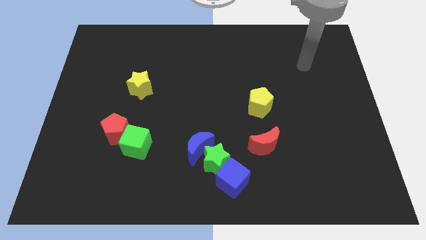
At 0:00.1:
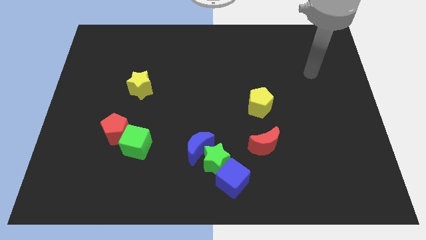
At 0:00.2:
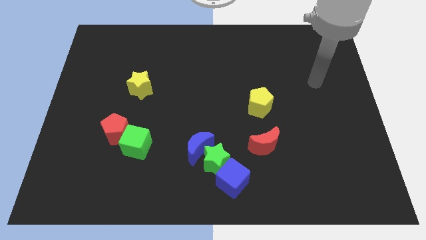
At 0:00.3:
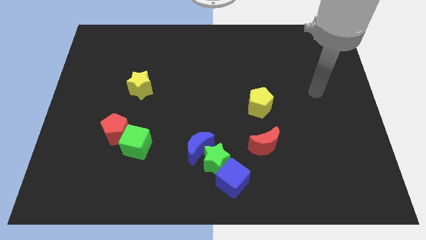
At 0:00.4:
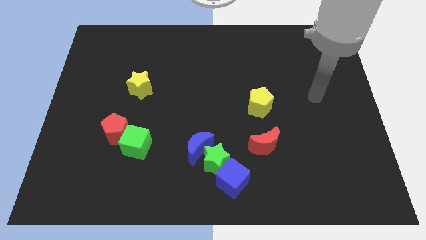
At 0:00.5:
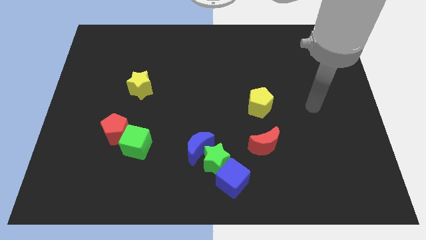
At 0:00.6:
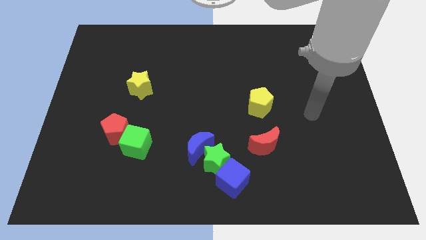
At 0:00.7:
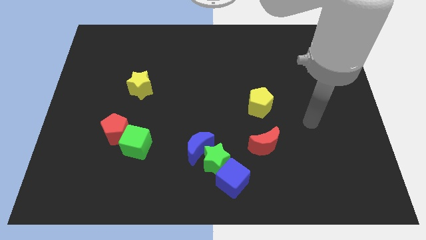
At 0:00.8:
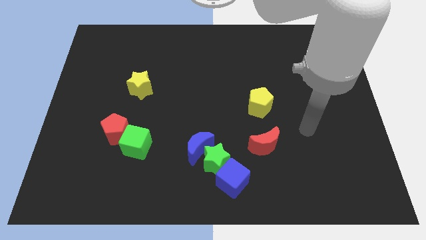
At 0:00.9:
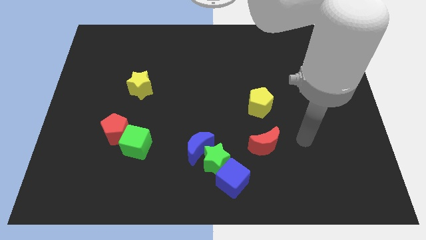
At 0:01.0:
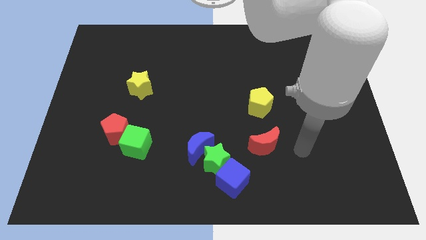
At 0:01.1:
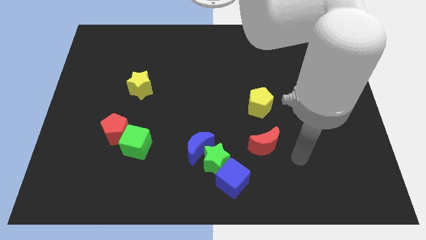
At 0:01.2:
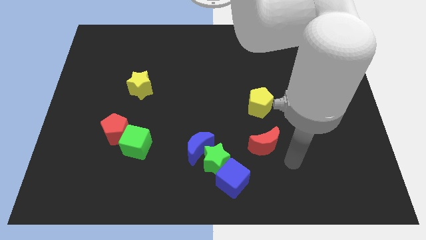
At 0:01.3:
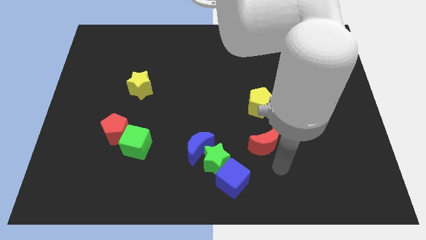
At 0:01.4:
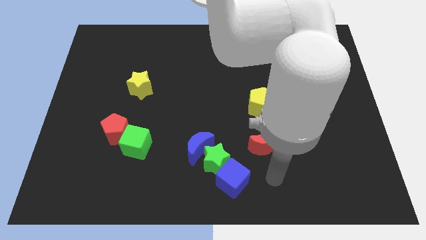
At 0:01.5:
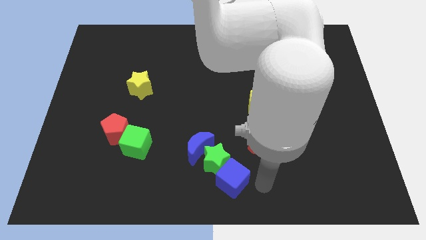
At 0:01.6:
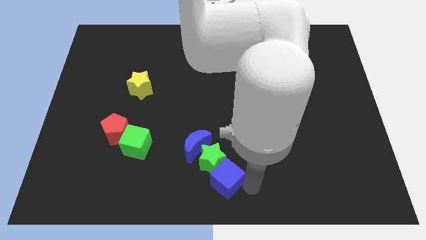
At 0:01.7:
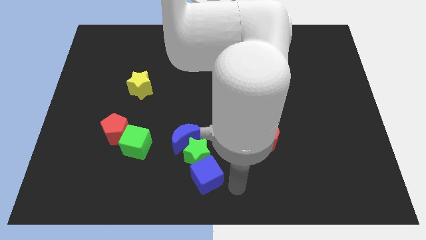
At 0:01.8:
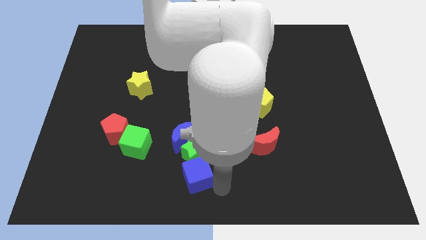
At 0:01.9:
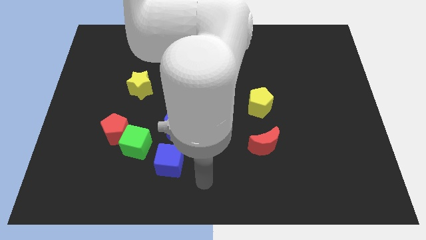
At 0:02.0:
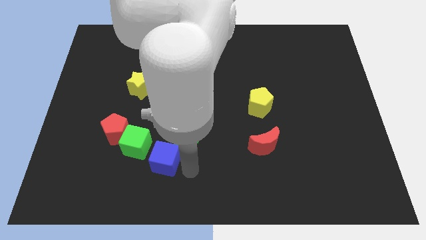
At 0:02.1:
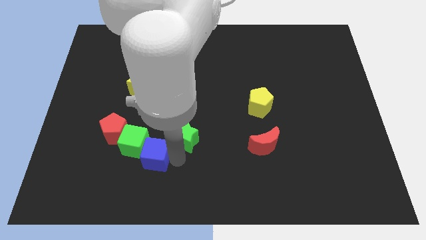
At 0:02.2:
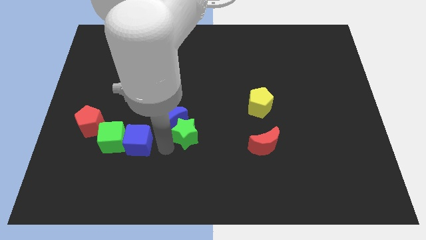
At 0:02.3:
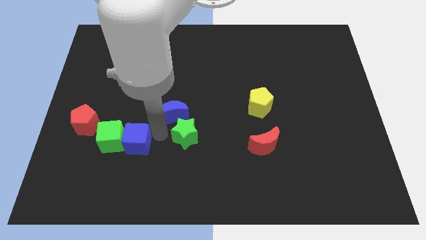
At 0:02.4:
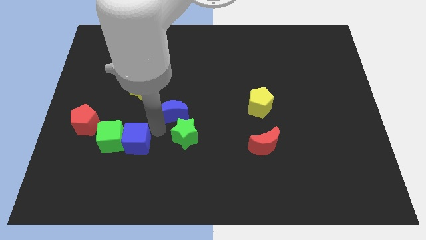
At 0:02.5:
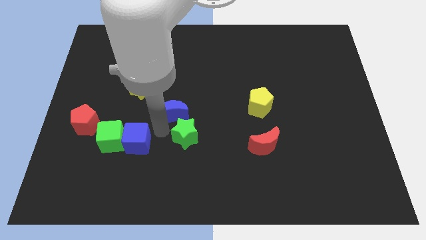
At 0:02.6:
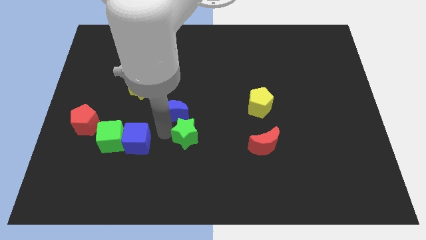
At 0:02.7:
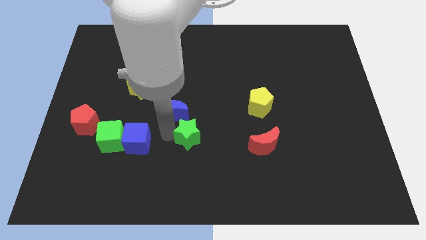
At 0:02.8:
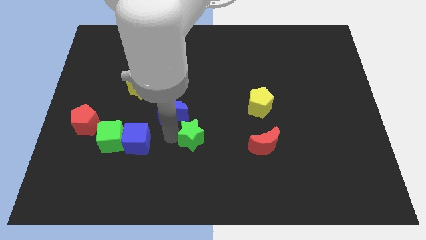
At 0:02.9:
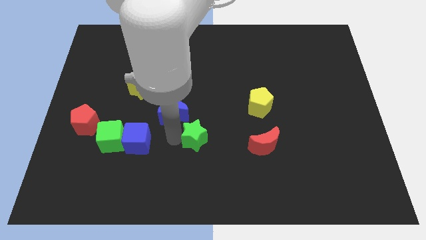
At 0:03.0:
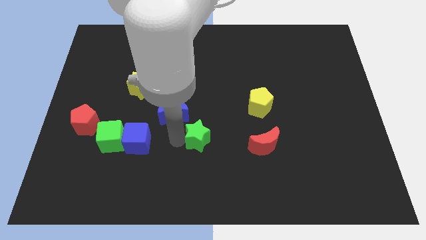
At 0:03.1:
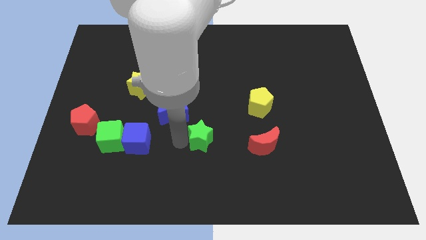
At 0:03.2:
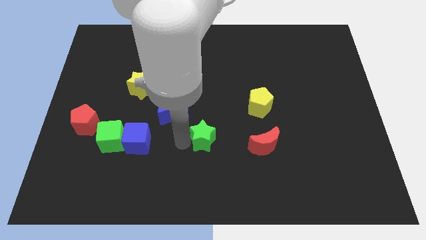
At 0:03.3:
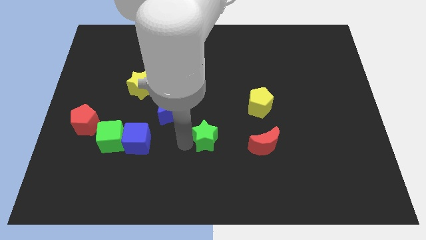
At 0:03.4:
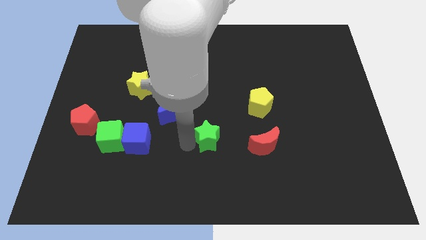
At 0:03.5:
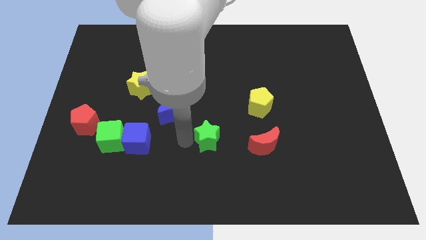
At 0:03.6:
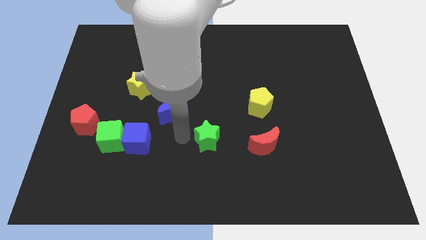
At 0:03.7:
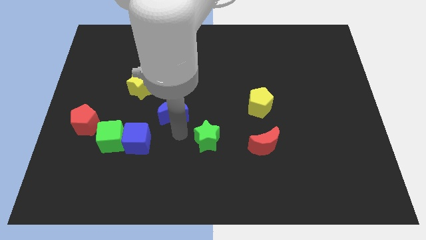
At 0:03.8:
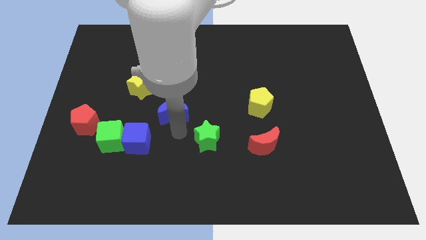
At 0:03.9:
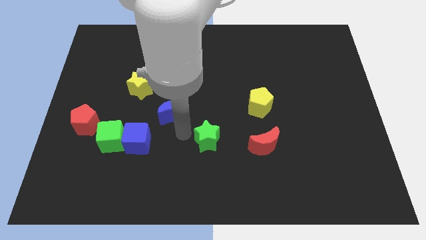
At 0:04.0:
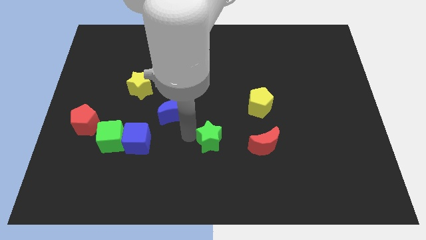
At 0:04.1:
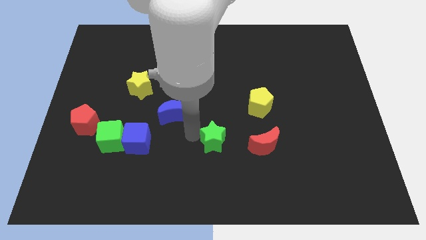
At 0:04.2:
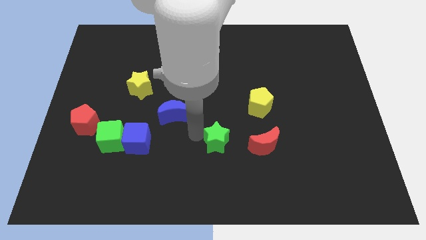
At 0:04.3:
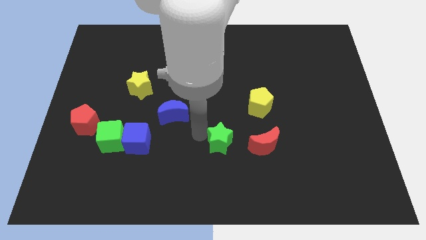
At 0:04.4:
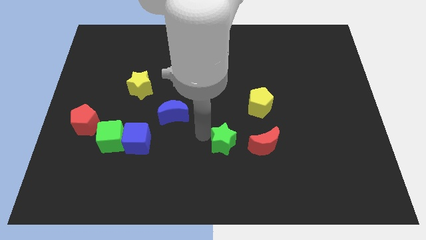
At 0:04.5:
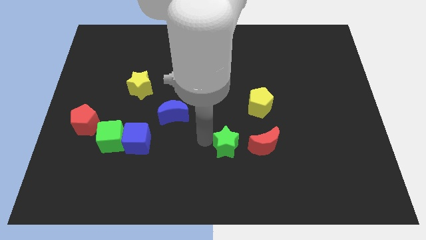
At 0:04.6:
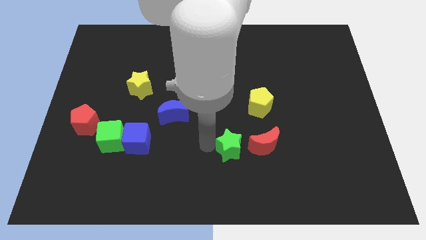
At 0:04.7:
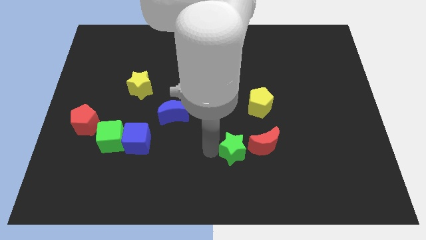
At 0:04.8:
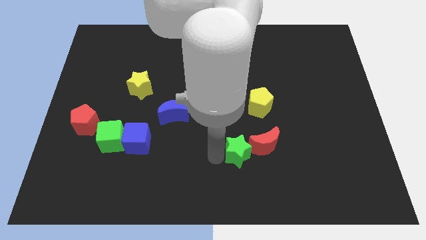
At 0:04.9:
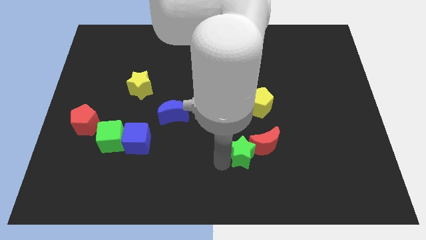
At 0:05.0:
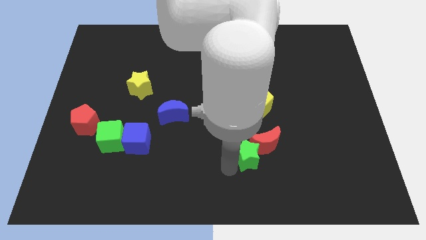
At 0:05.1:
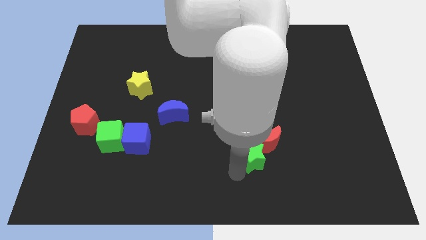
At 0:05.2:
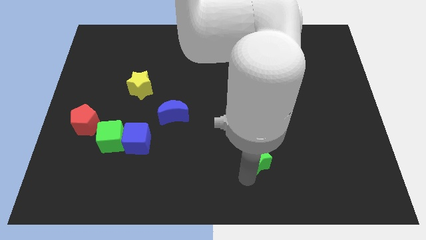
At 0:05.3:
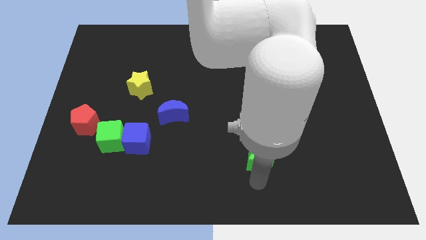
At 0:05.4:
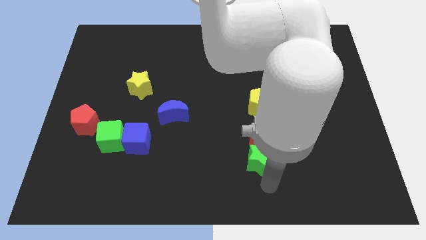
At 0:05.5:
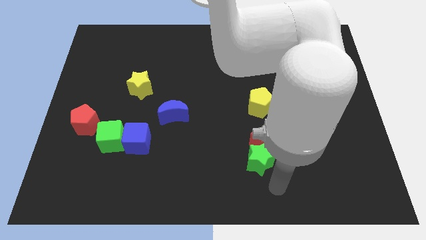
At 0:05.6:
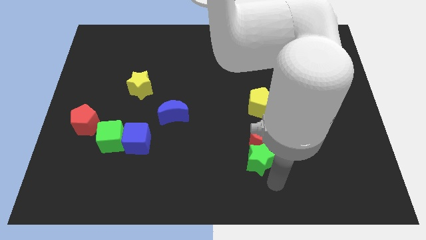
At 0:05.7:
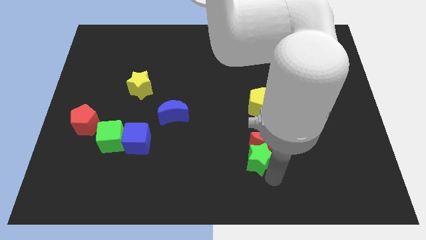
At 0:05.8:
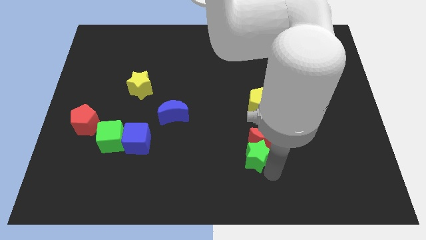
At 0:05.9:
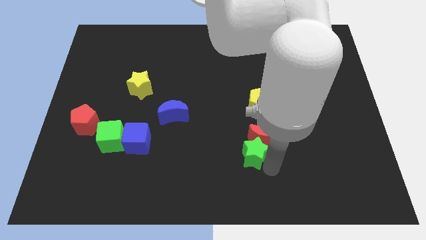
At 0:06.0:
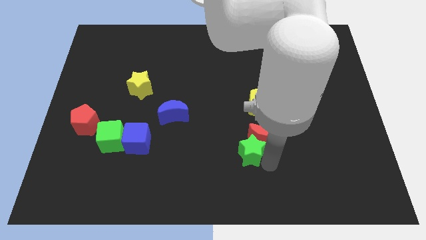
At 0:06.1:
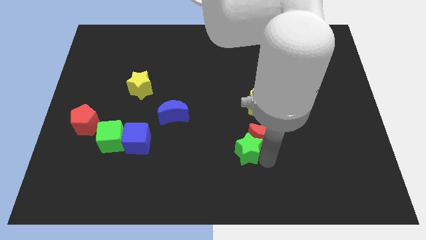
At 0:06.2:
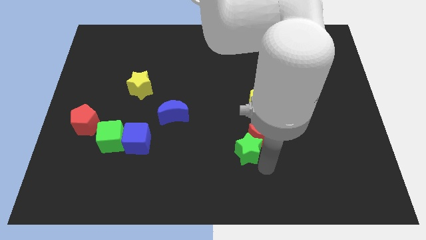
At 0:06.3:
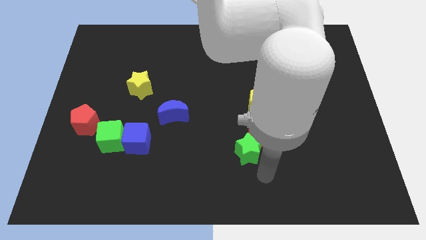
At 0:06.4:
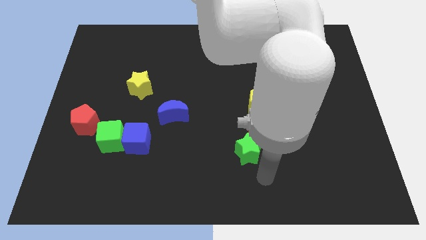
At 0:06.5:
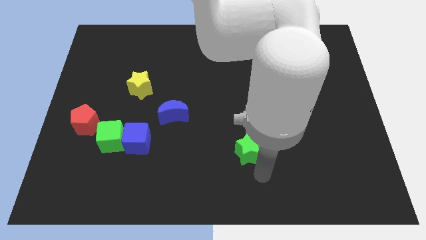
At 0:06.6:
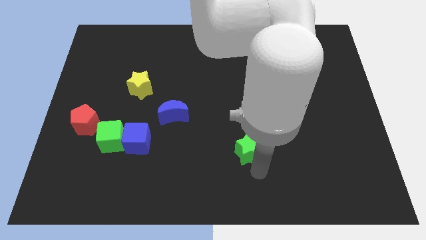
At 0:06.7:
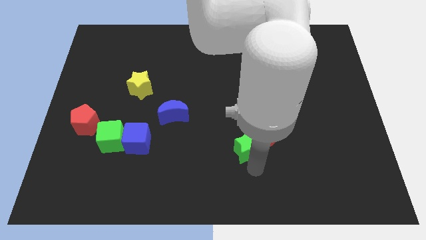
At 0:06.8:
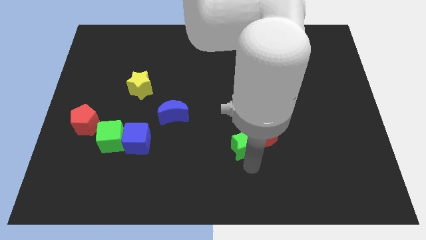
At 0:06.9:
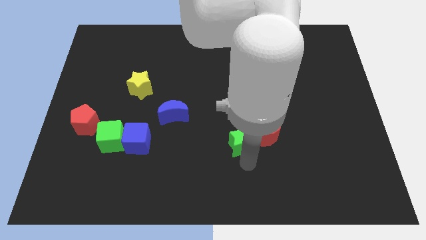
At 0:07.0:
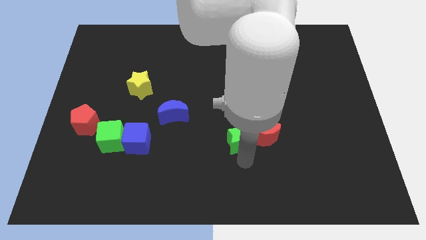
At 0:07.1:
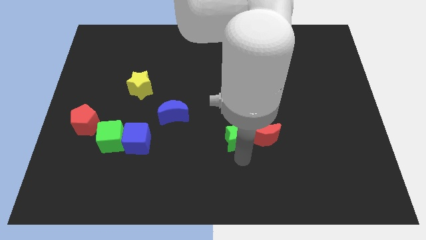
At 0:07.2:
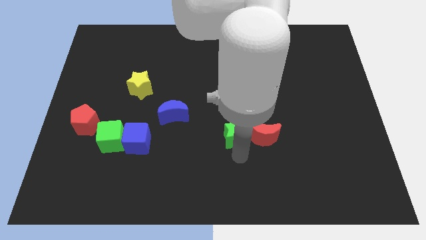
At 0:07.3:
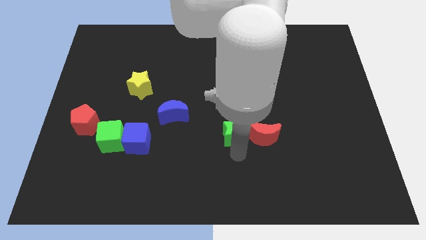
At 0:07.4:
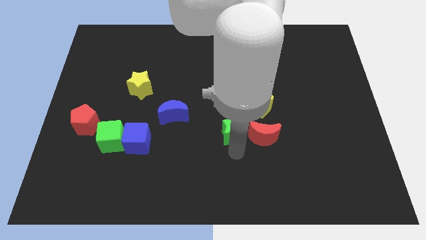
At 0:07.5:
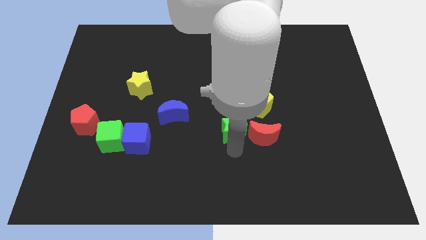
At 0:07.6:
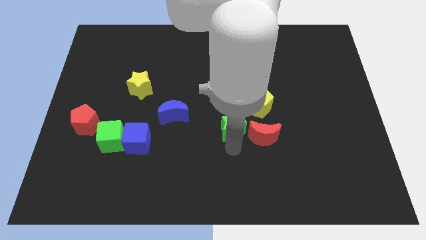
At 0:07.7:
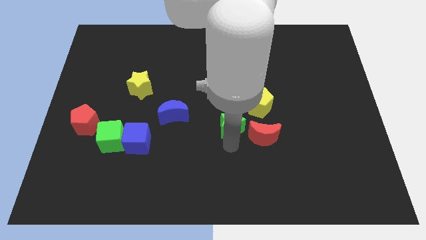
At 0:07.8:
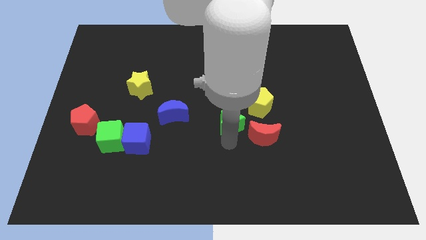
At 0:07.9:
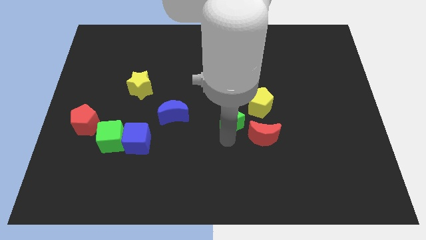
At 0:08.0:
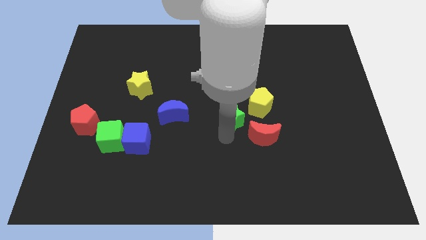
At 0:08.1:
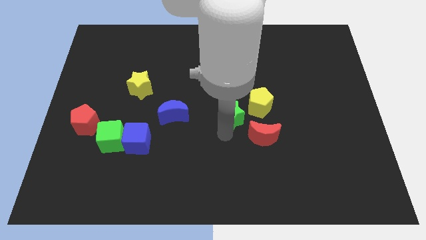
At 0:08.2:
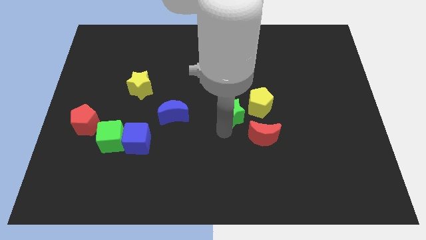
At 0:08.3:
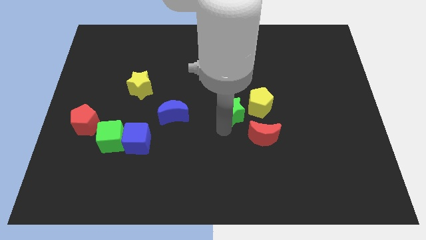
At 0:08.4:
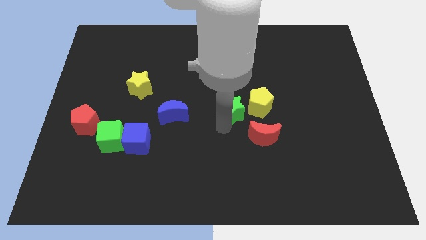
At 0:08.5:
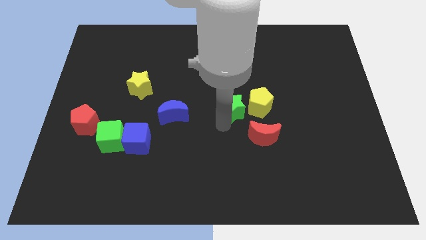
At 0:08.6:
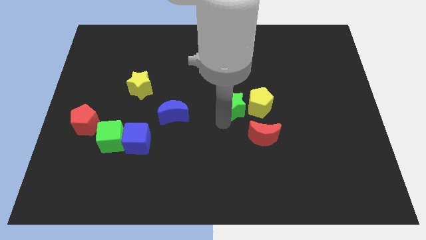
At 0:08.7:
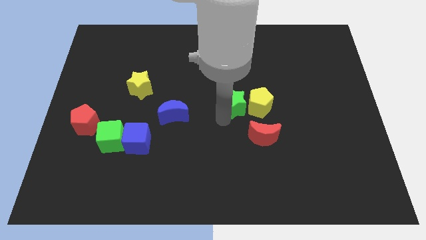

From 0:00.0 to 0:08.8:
move the green star to the top left side of the yellow pentagon
